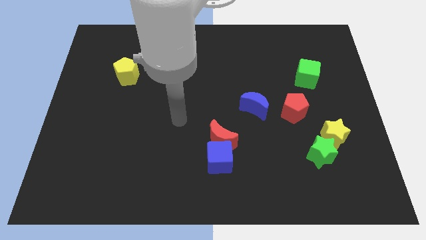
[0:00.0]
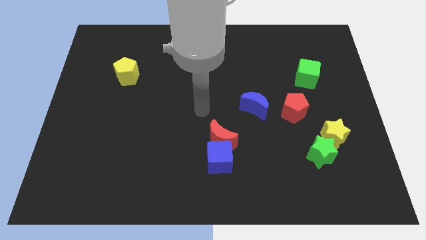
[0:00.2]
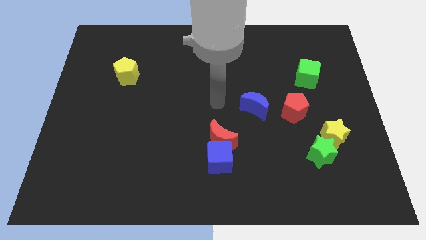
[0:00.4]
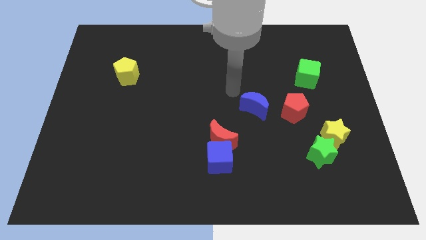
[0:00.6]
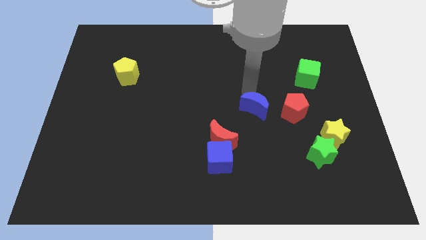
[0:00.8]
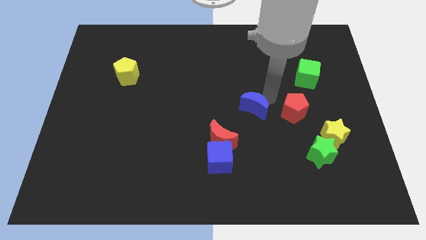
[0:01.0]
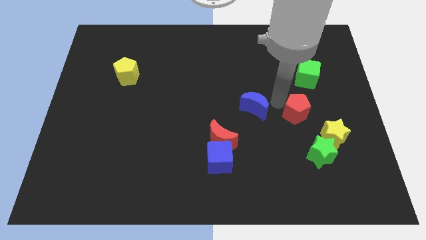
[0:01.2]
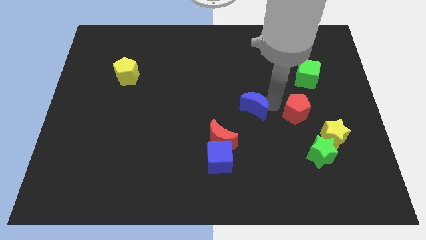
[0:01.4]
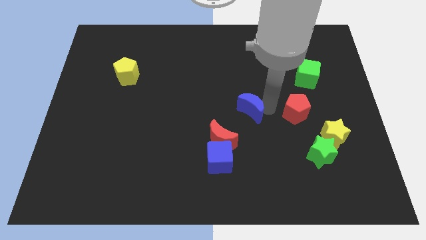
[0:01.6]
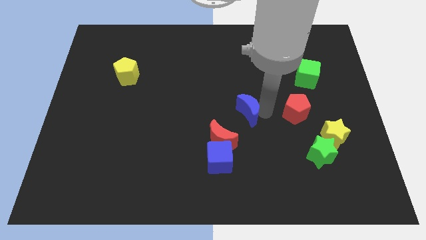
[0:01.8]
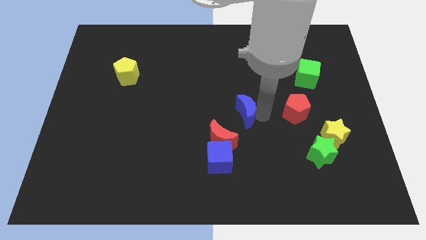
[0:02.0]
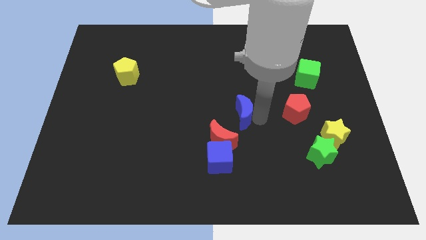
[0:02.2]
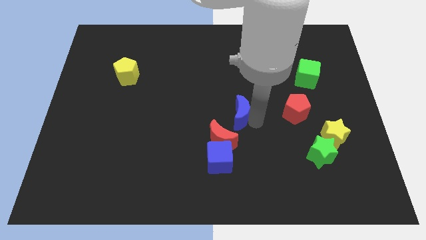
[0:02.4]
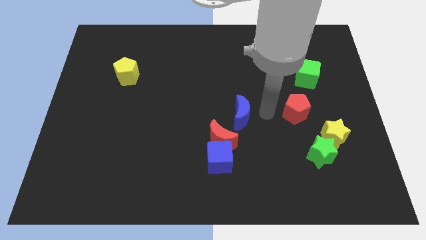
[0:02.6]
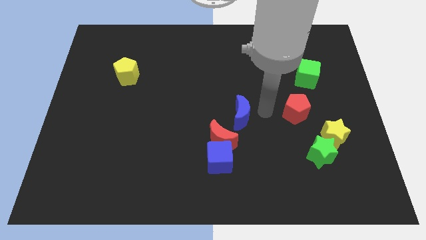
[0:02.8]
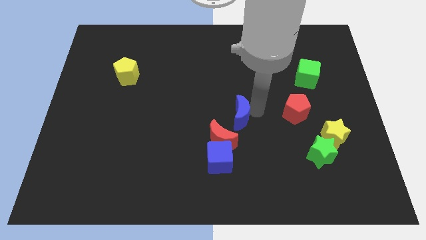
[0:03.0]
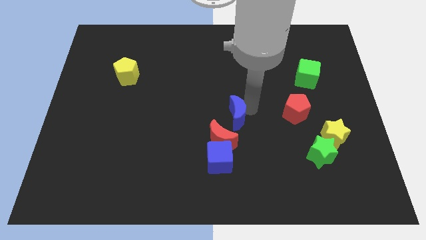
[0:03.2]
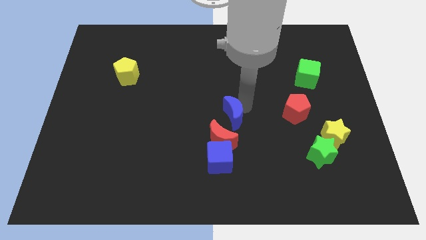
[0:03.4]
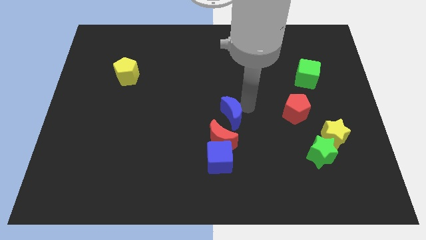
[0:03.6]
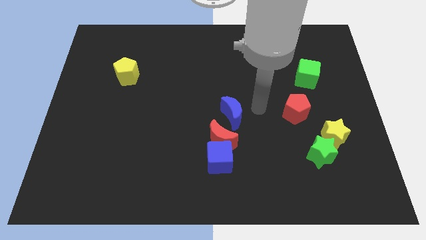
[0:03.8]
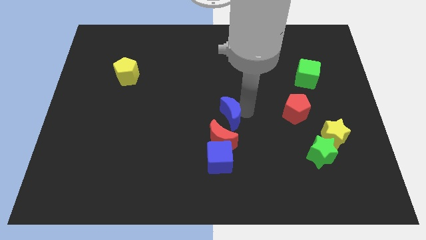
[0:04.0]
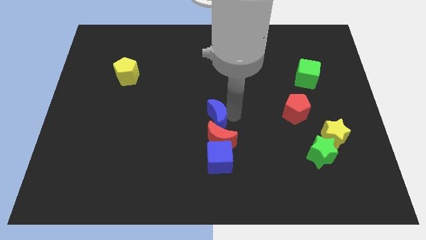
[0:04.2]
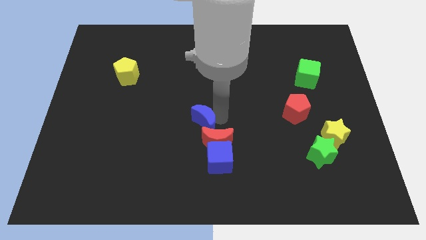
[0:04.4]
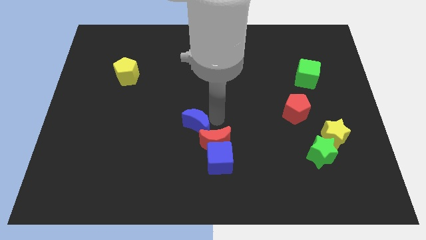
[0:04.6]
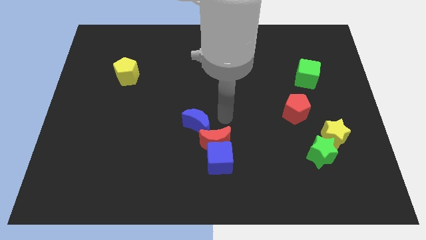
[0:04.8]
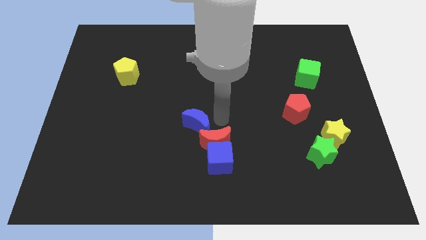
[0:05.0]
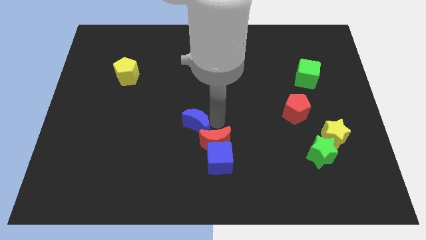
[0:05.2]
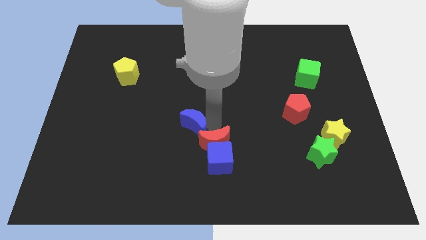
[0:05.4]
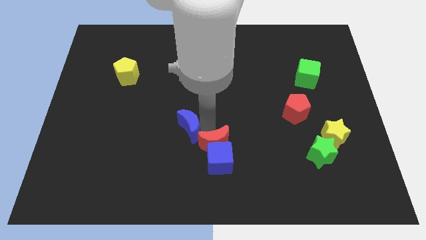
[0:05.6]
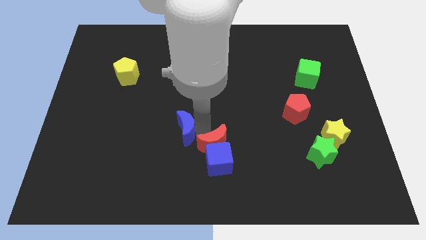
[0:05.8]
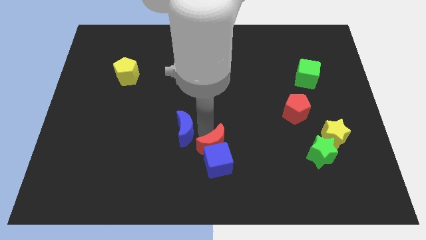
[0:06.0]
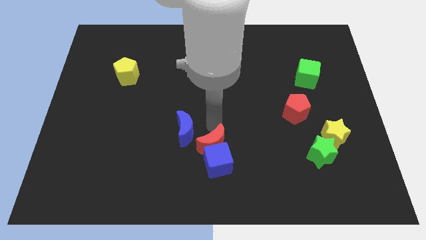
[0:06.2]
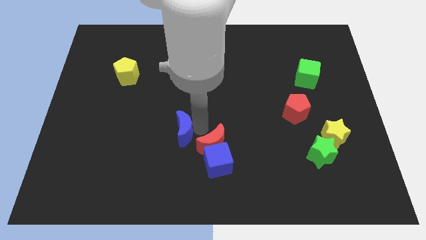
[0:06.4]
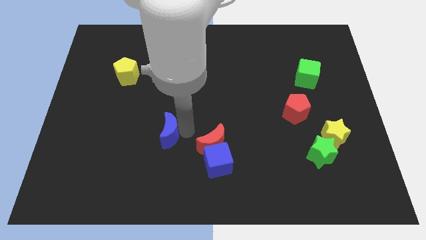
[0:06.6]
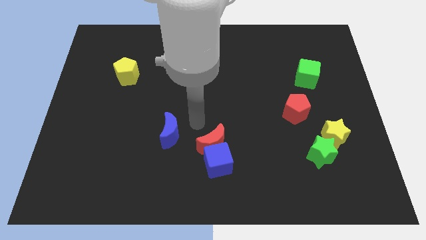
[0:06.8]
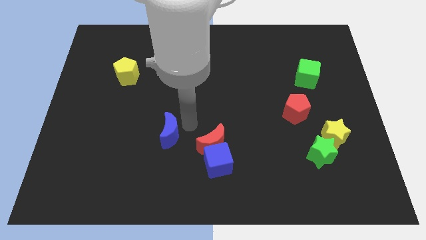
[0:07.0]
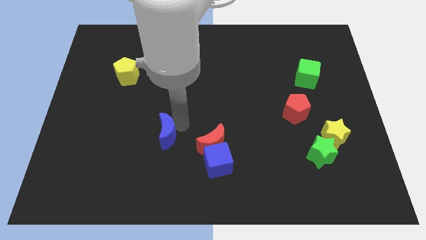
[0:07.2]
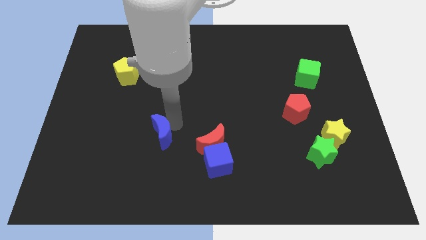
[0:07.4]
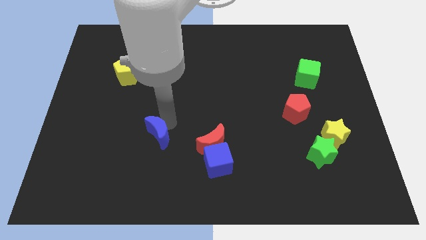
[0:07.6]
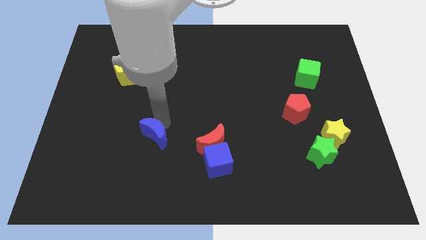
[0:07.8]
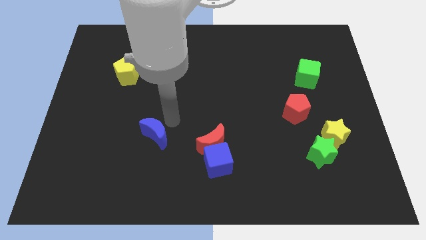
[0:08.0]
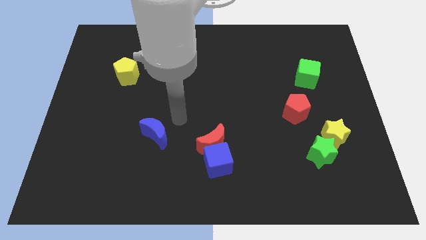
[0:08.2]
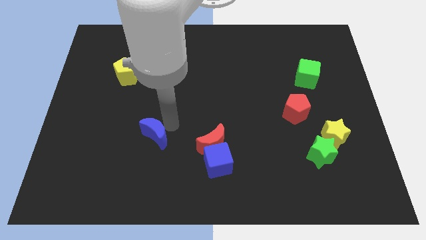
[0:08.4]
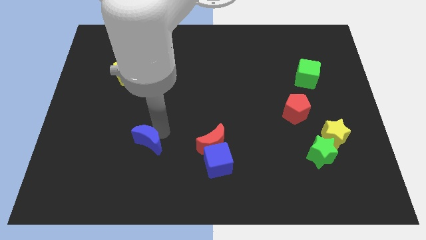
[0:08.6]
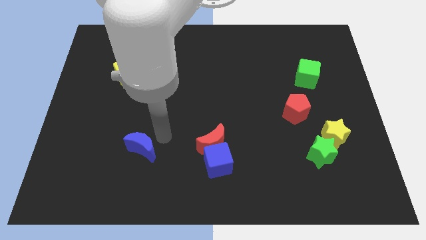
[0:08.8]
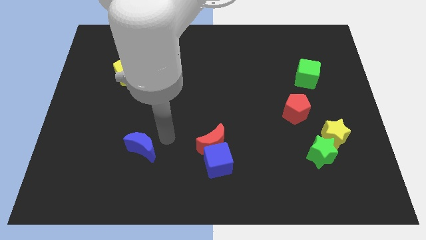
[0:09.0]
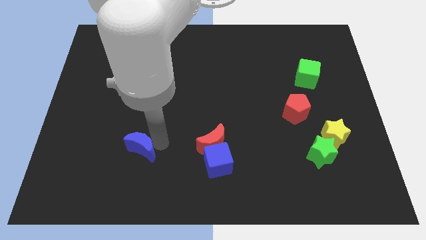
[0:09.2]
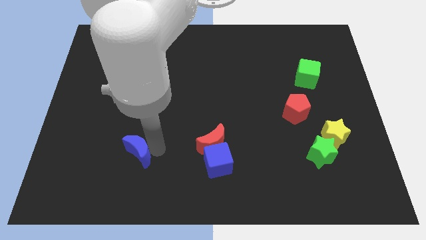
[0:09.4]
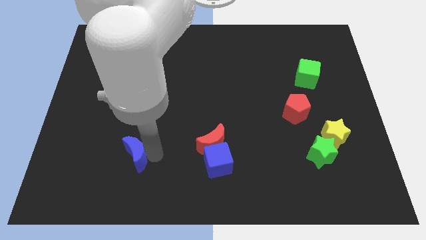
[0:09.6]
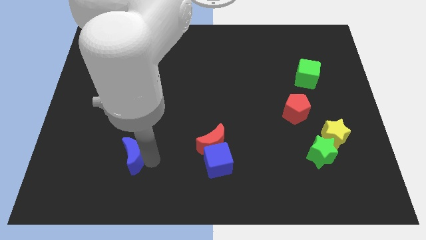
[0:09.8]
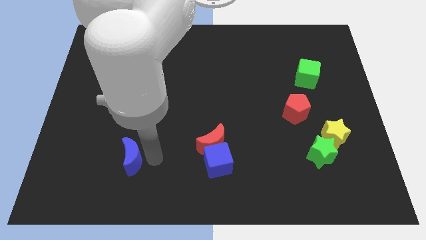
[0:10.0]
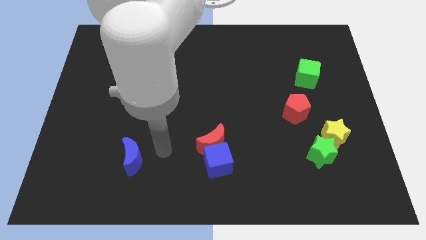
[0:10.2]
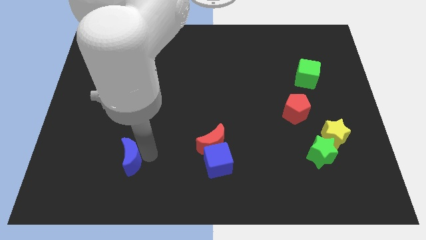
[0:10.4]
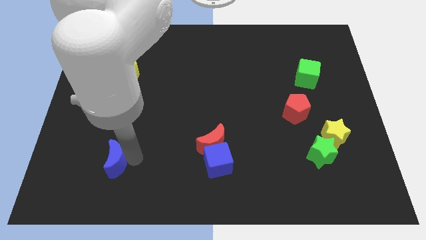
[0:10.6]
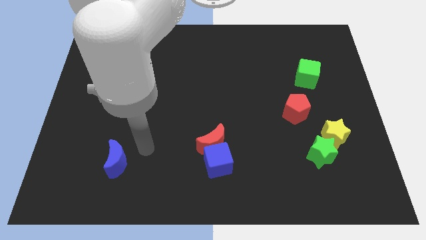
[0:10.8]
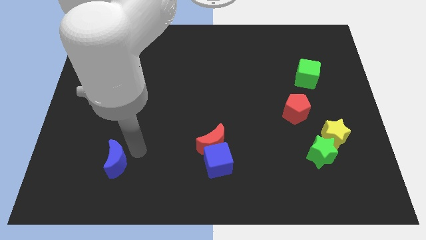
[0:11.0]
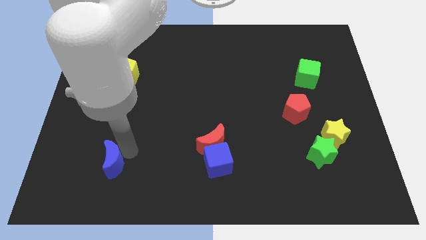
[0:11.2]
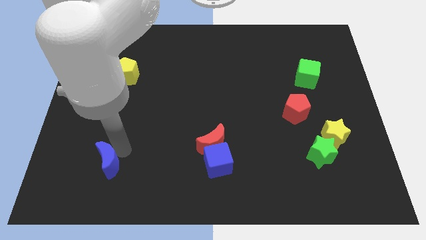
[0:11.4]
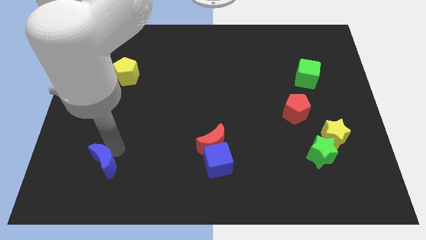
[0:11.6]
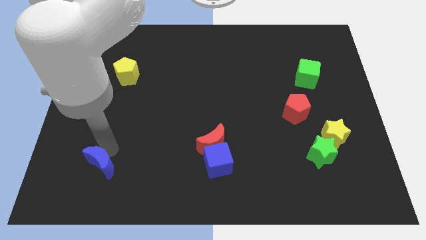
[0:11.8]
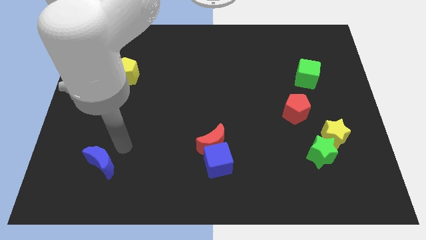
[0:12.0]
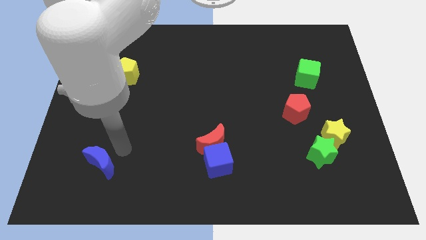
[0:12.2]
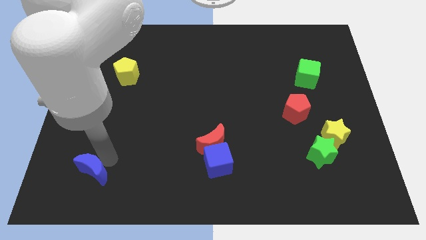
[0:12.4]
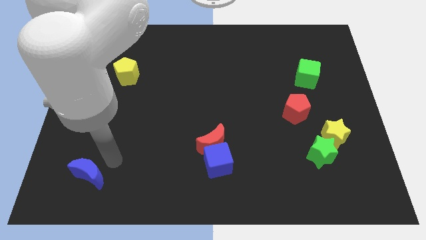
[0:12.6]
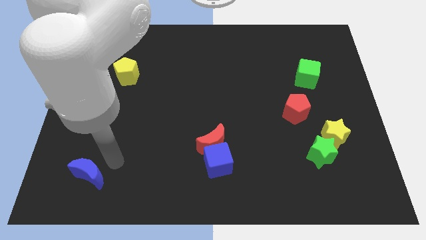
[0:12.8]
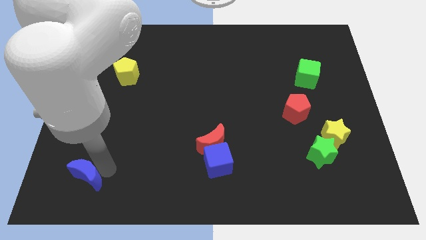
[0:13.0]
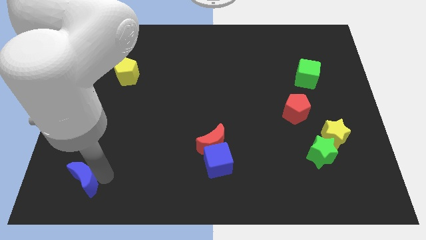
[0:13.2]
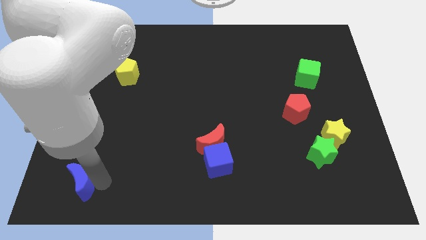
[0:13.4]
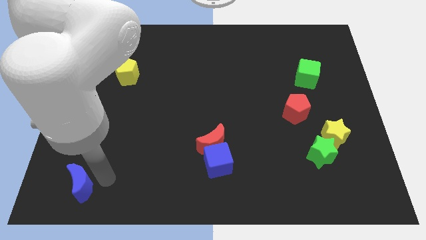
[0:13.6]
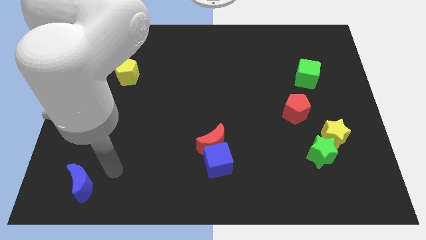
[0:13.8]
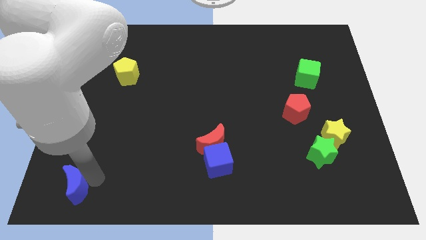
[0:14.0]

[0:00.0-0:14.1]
put the blue moon to the bottom left corner
